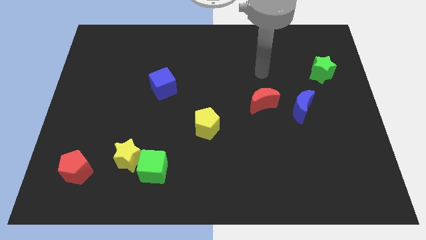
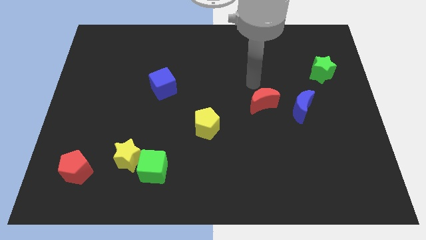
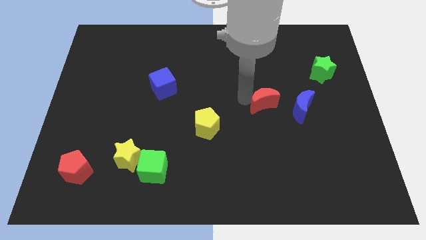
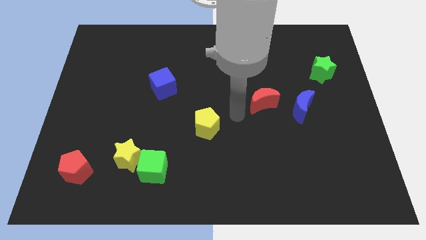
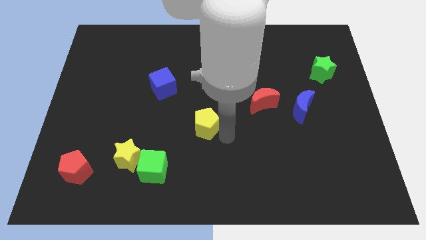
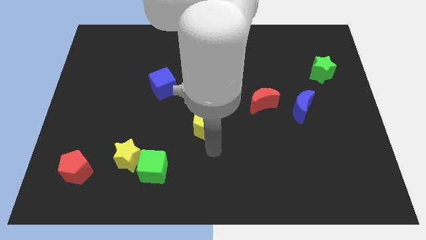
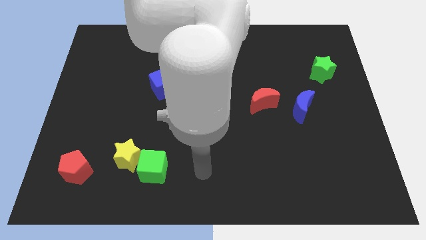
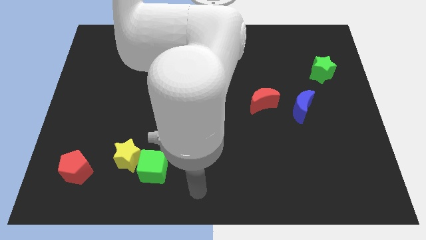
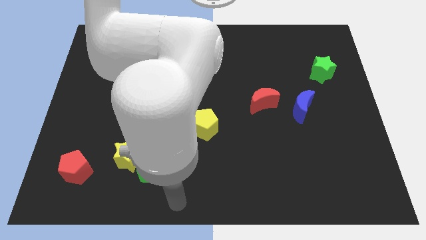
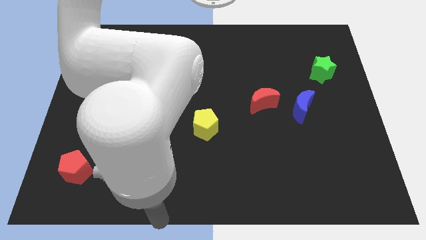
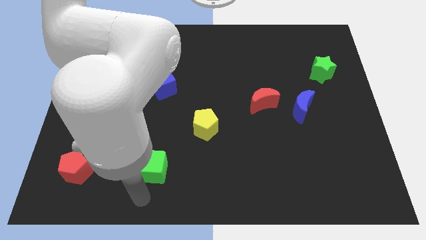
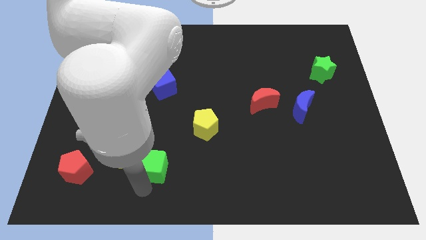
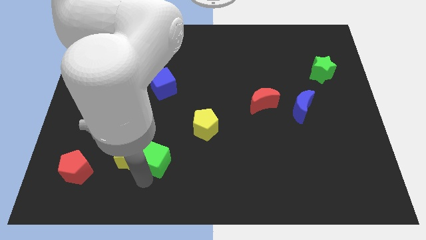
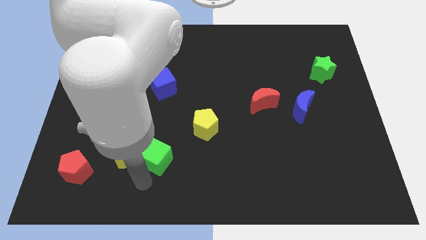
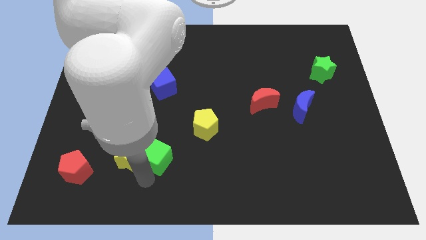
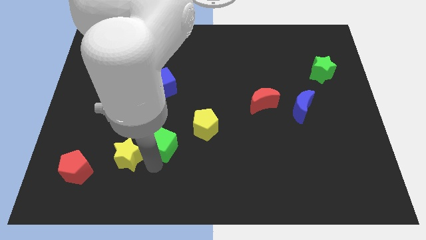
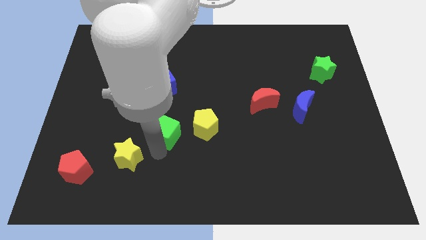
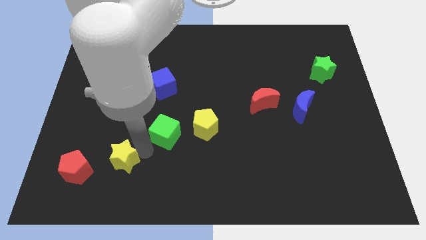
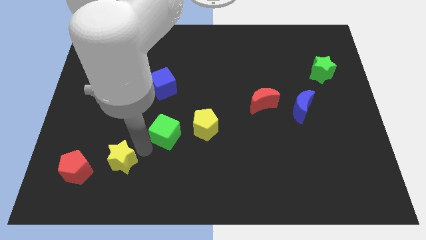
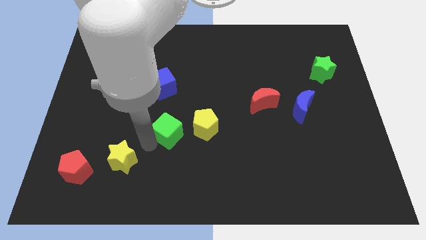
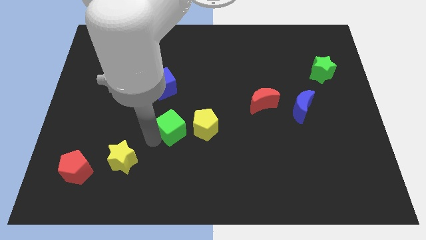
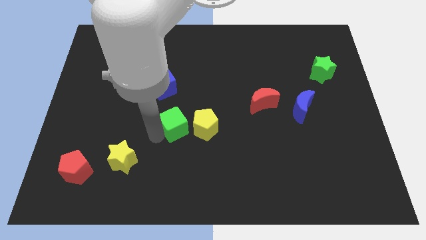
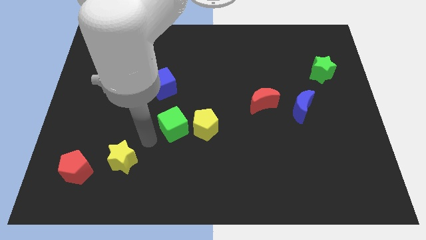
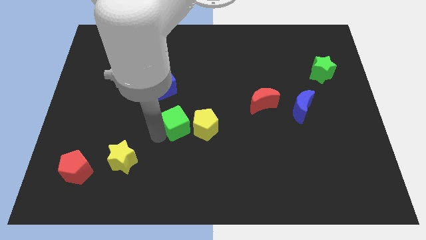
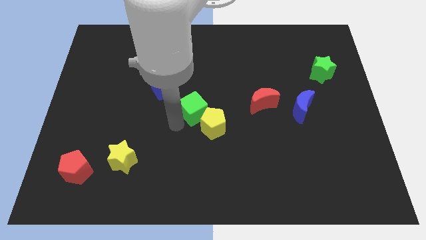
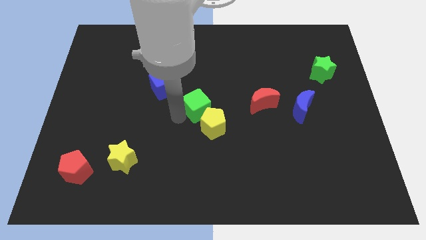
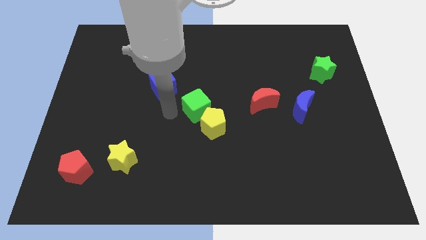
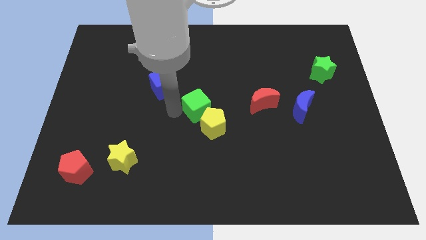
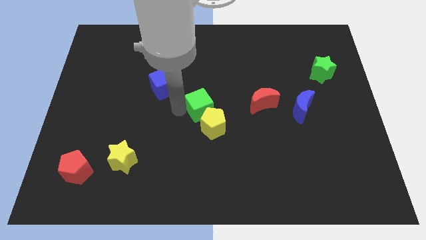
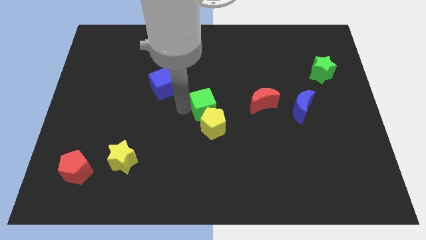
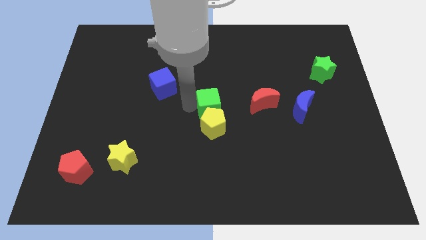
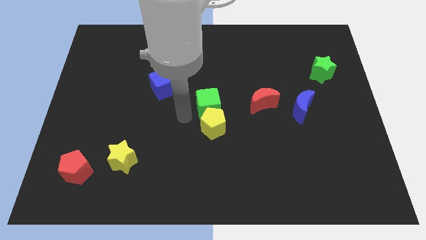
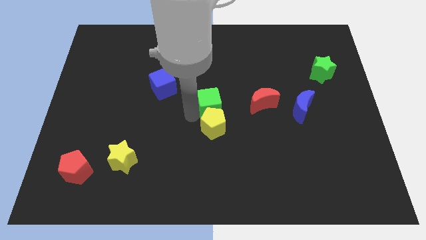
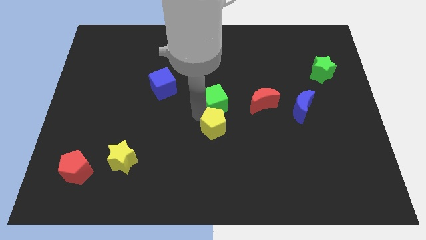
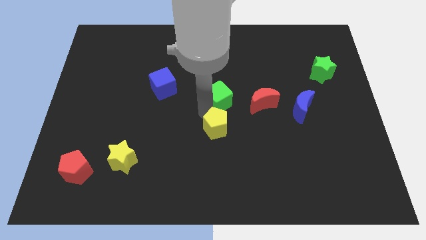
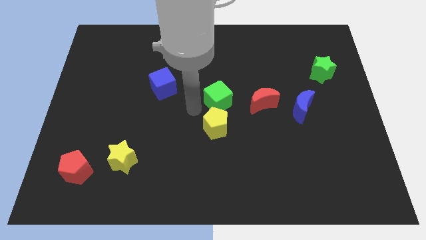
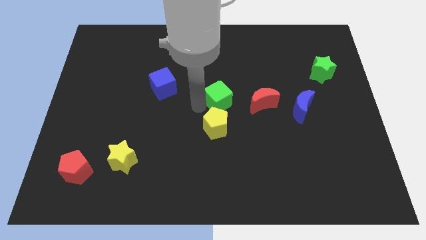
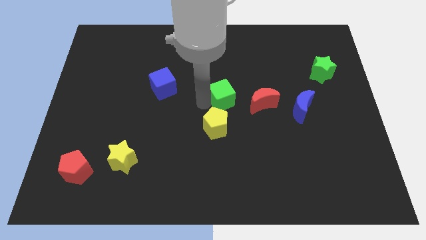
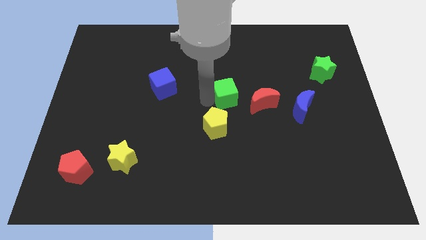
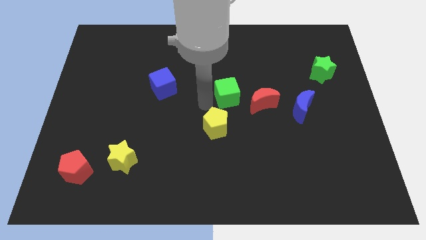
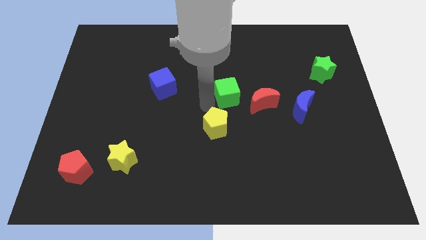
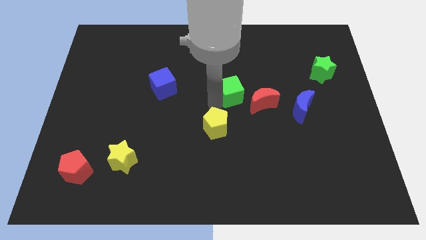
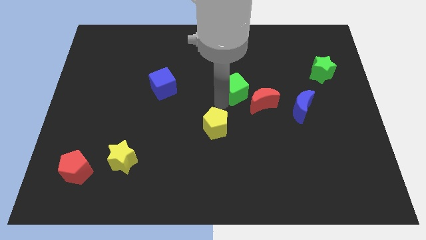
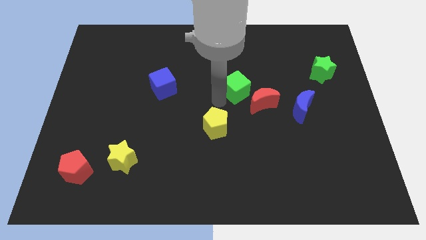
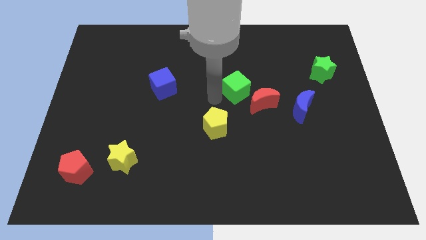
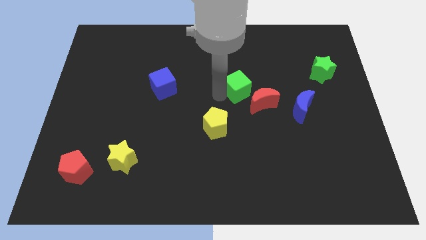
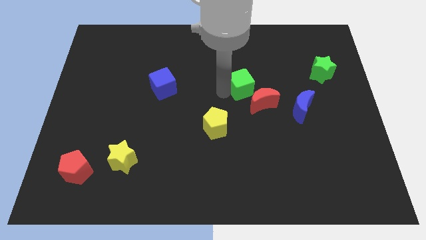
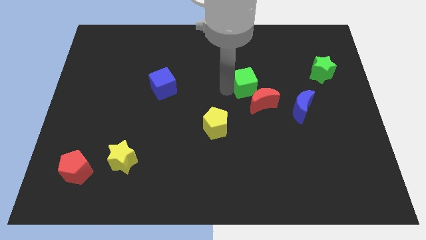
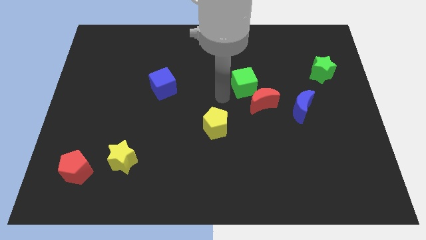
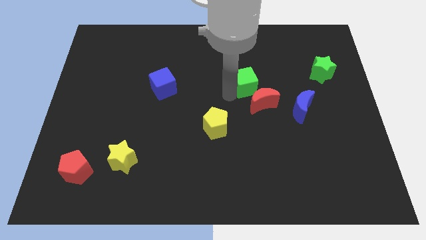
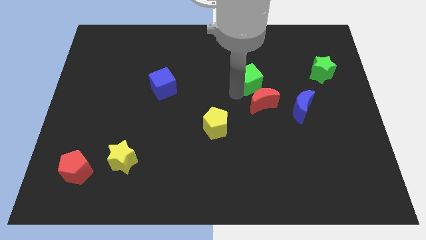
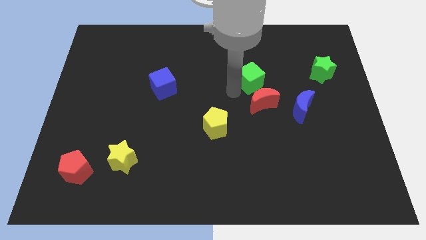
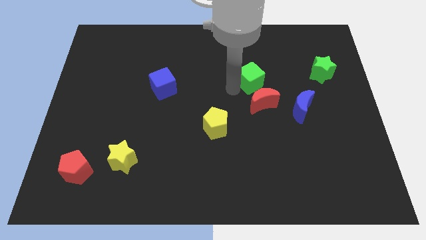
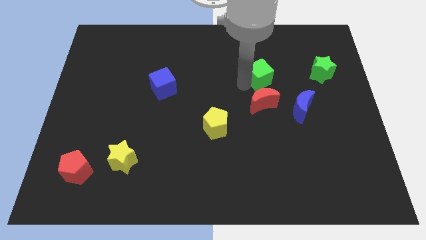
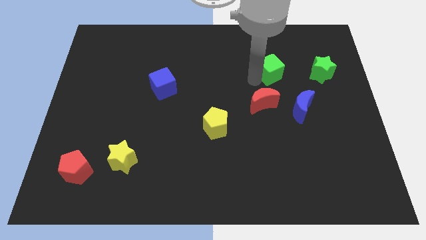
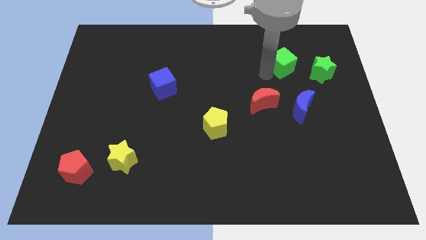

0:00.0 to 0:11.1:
slide the green cube diagonally up and to the left of the green star

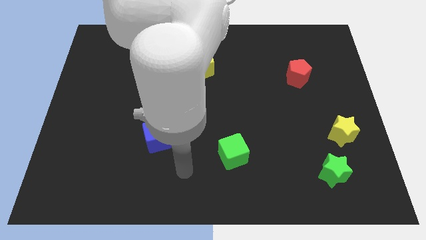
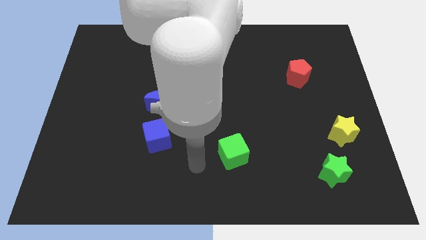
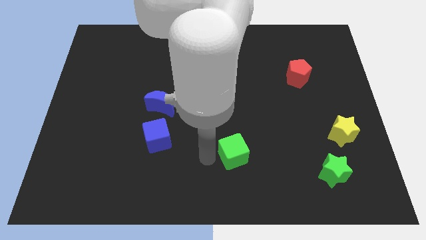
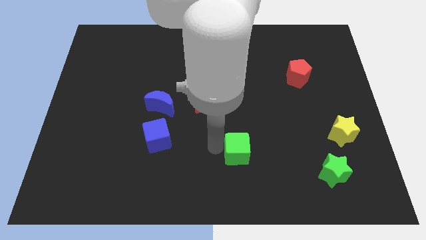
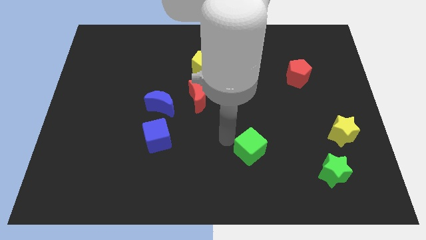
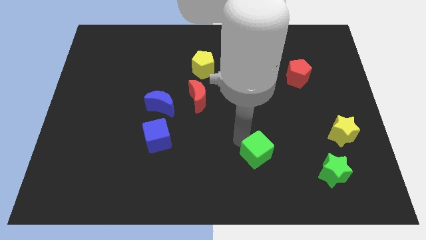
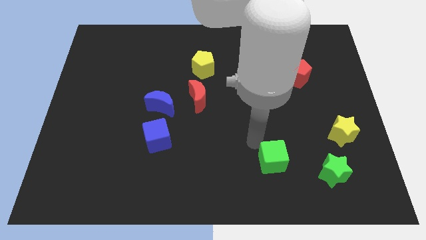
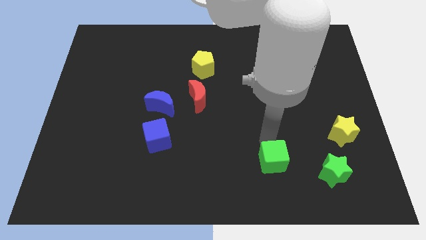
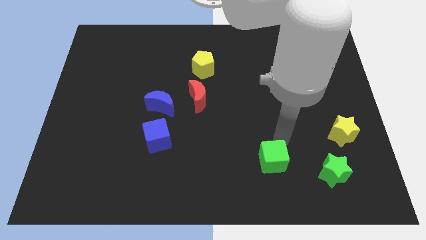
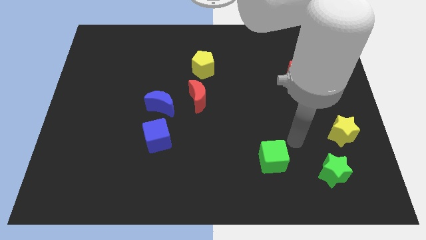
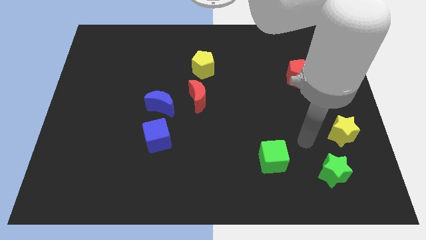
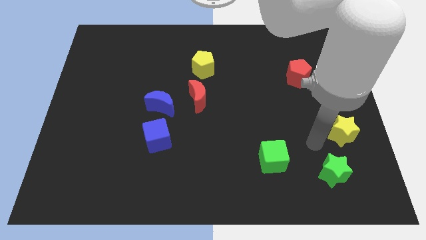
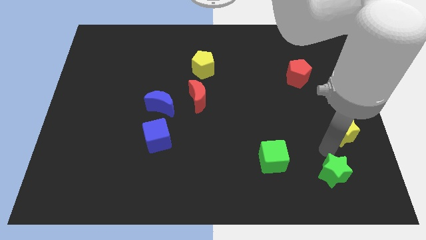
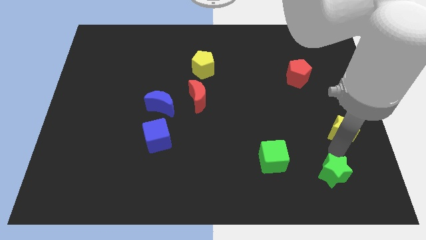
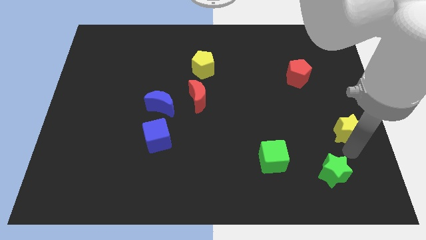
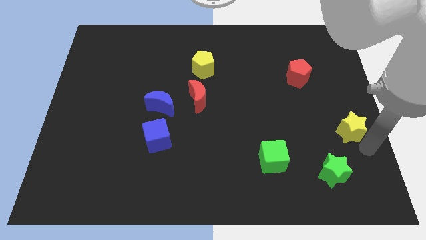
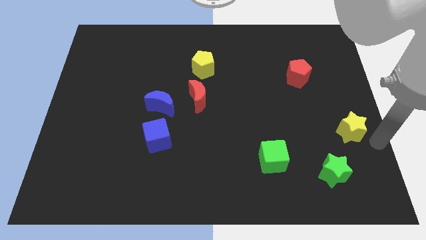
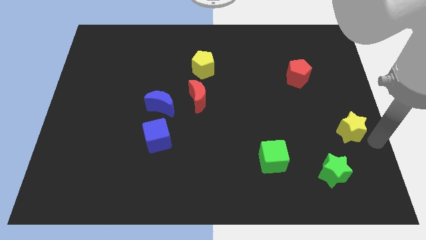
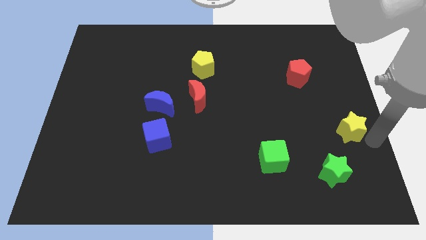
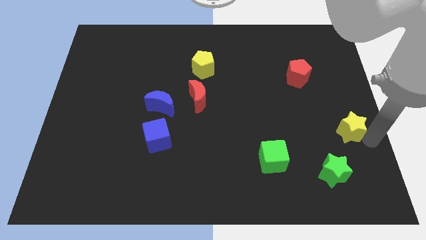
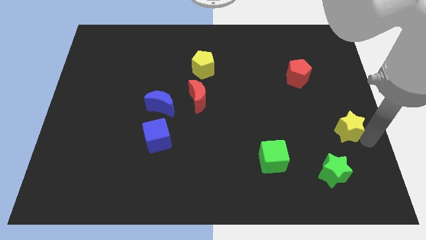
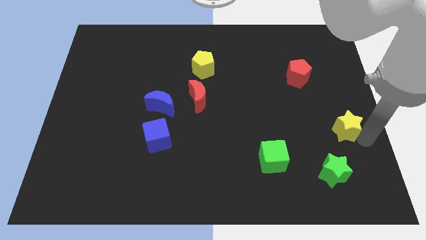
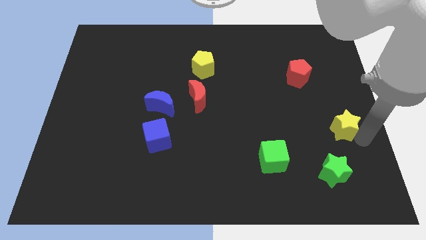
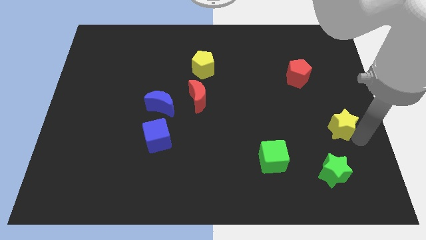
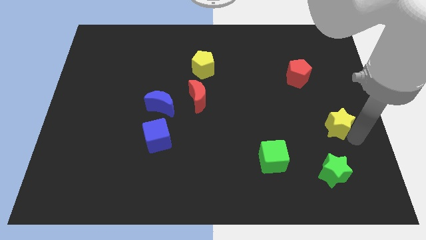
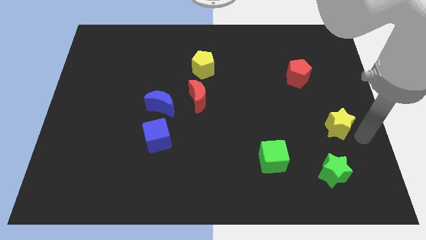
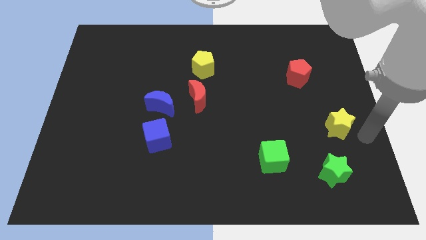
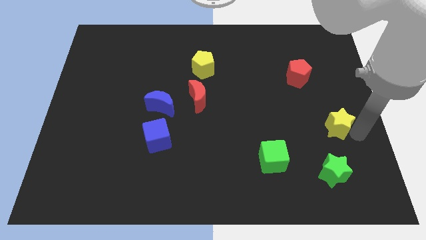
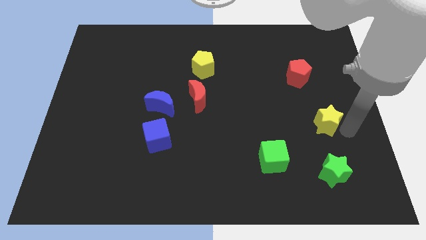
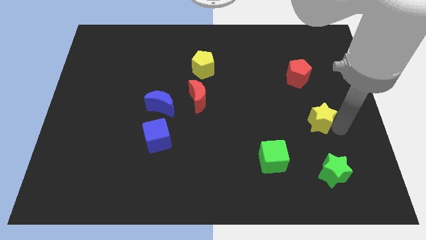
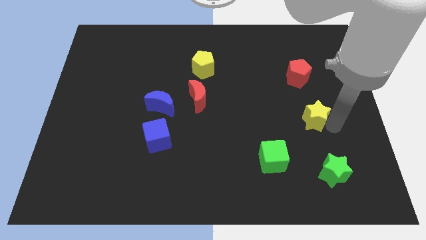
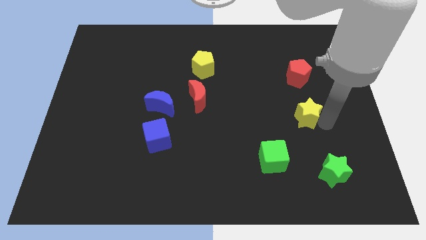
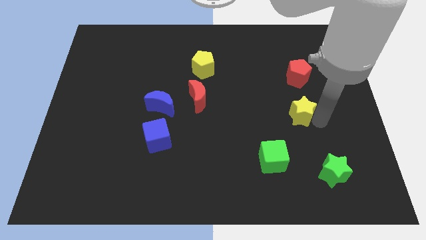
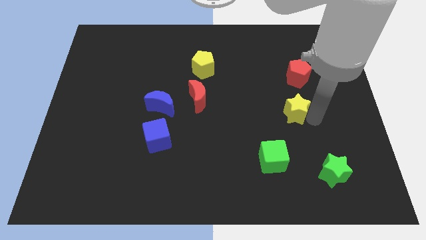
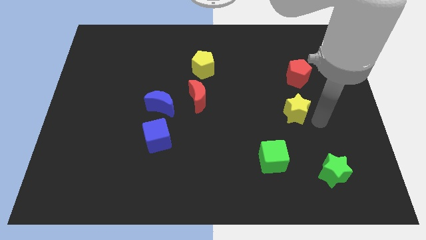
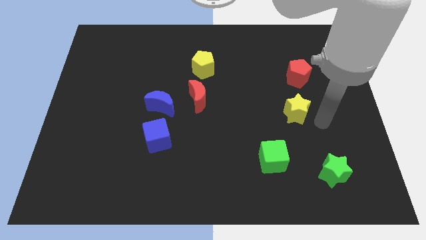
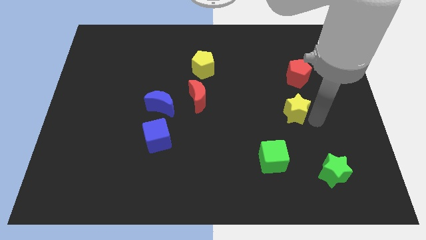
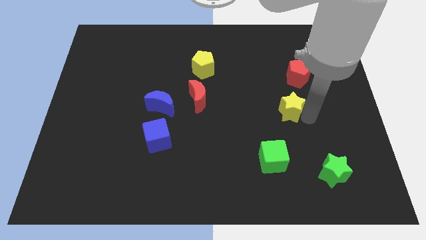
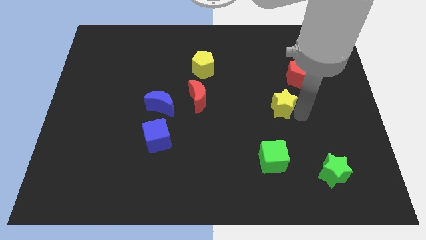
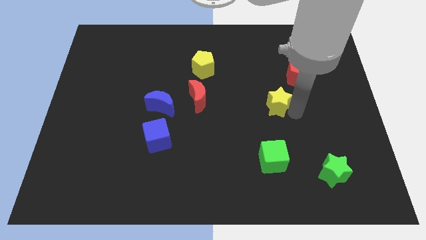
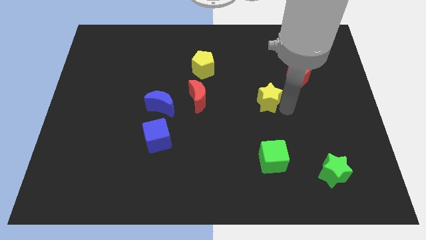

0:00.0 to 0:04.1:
move the yellow star to the right side of the red moon
